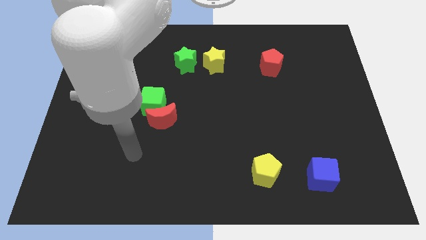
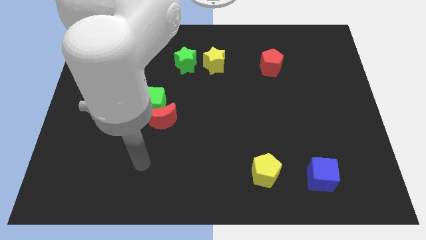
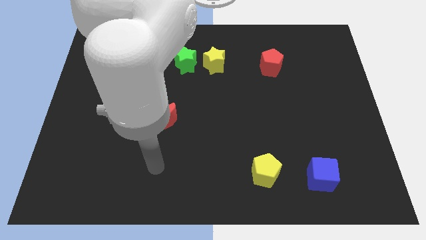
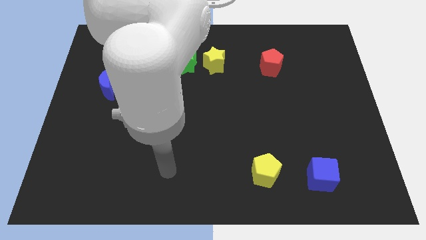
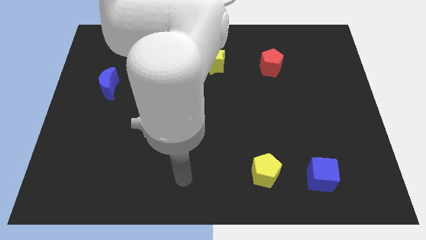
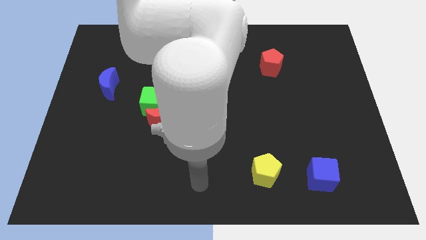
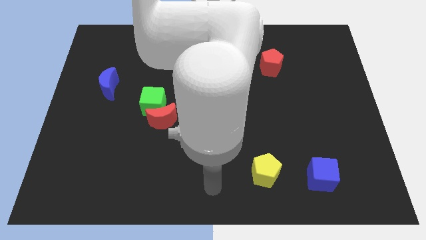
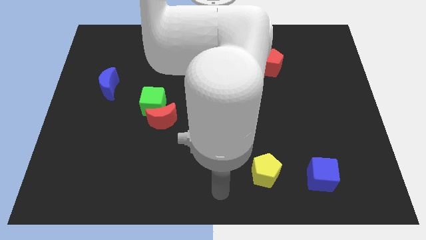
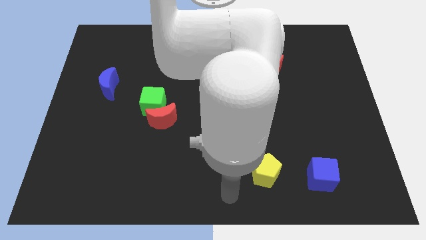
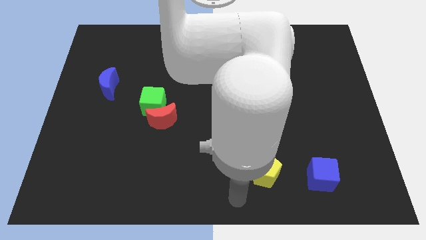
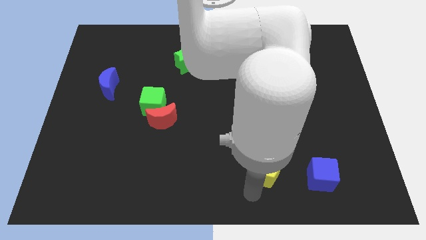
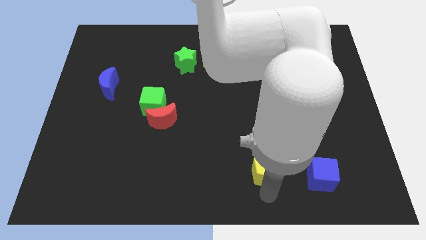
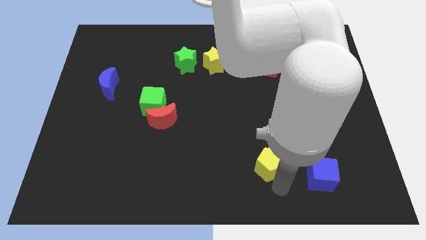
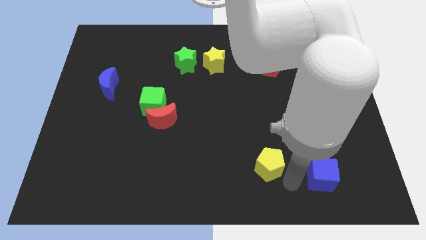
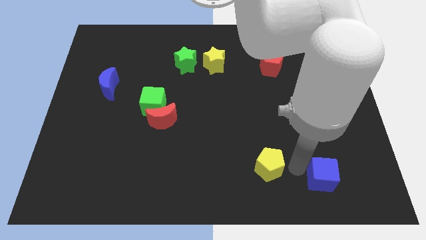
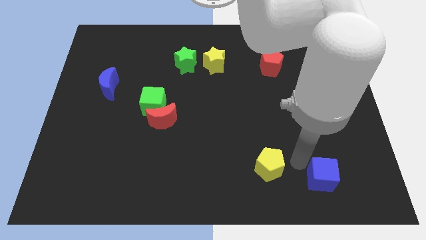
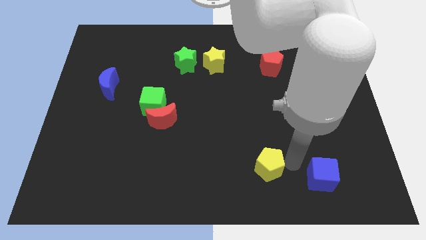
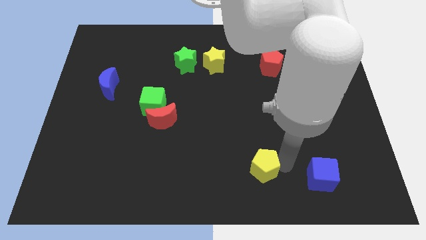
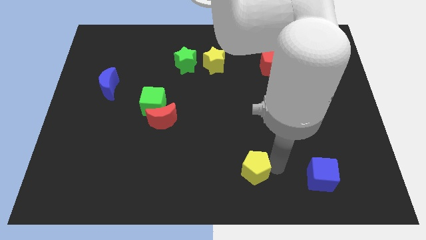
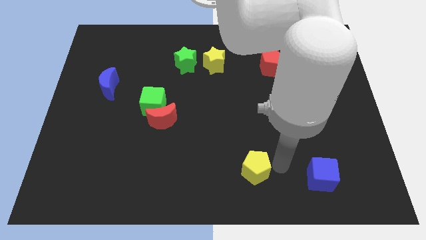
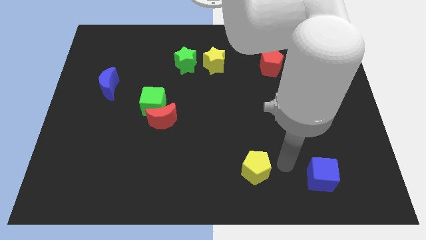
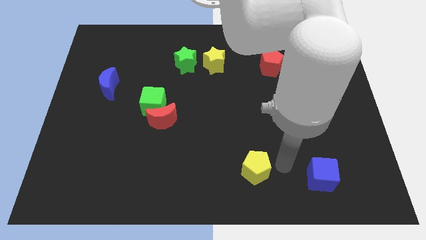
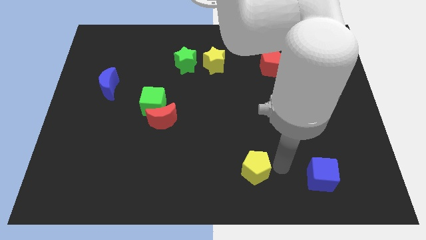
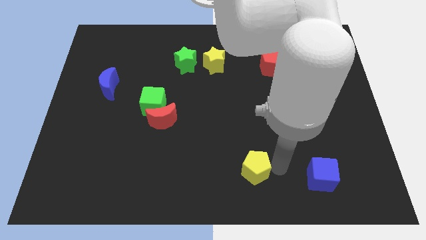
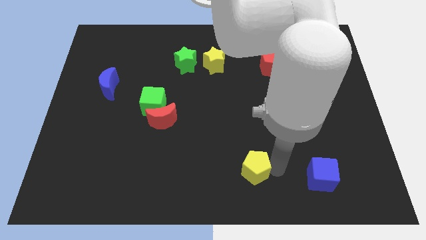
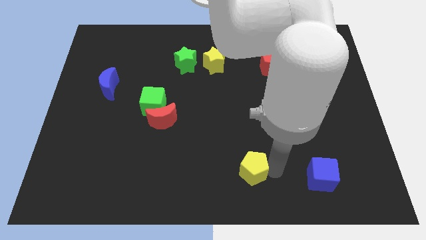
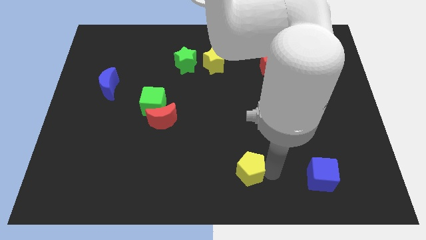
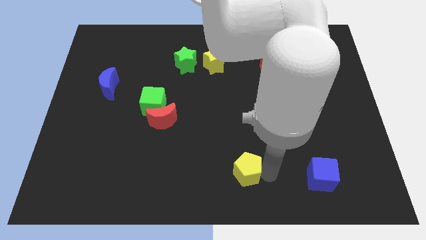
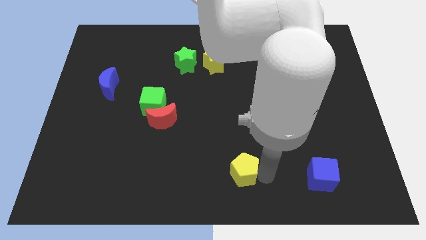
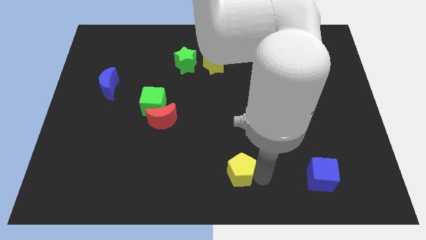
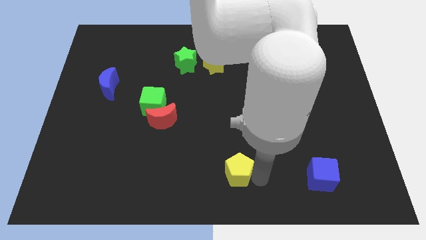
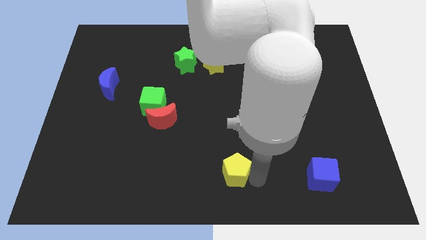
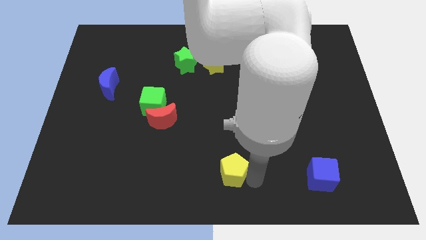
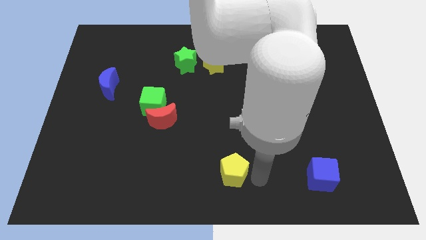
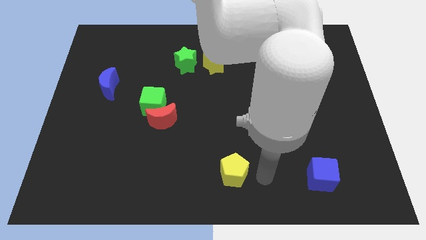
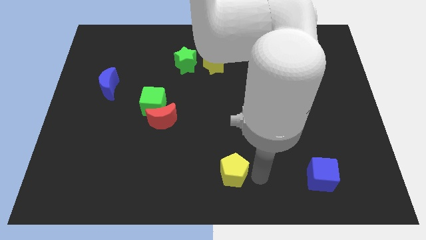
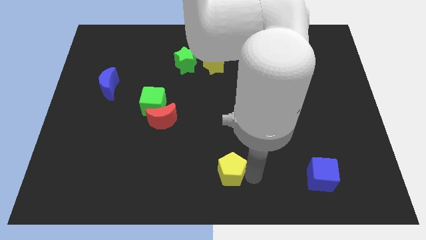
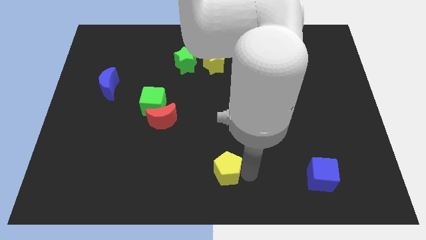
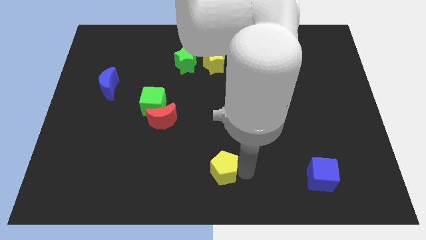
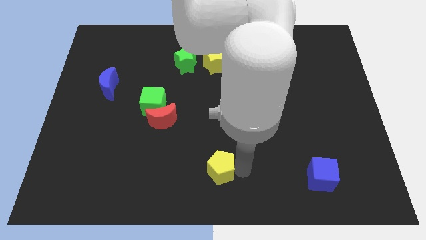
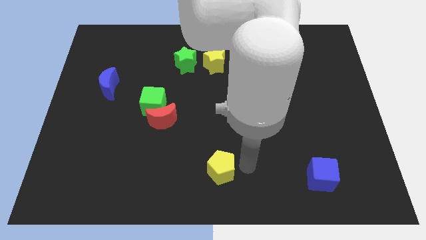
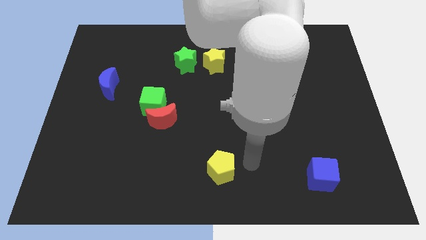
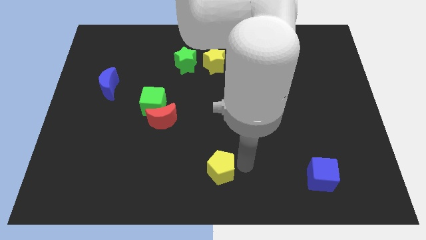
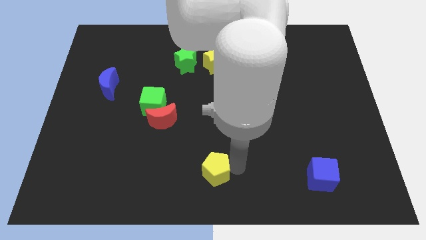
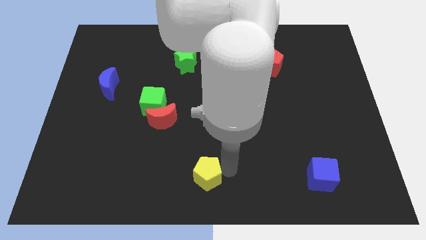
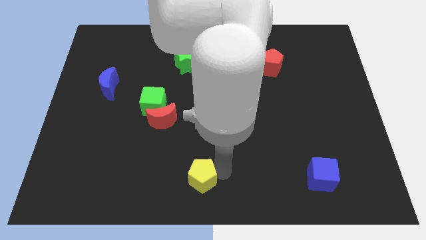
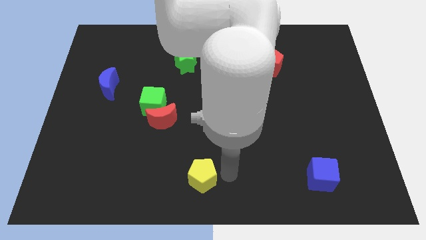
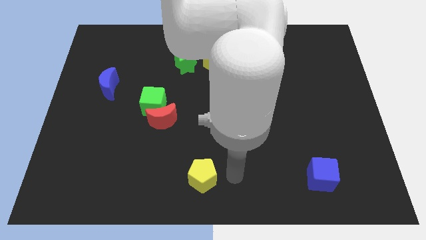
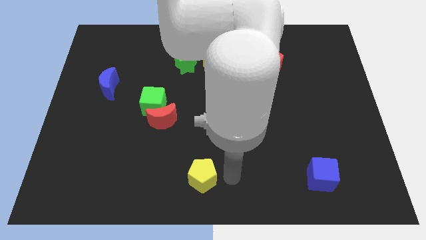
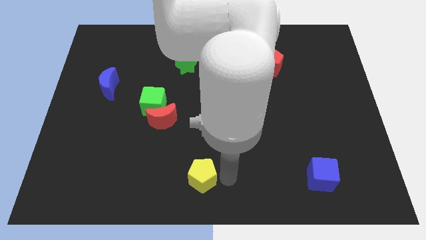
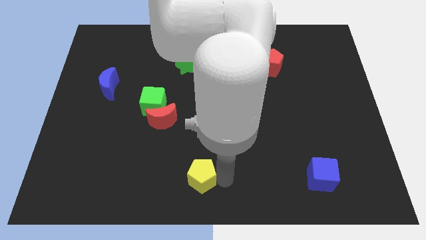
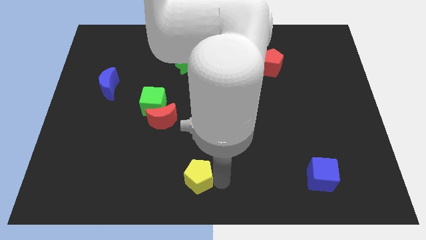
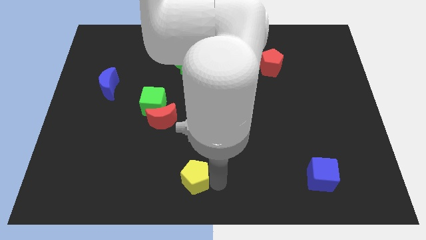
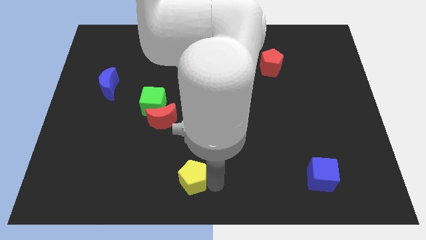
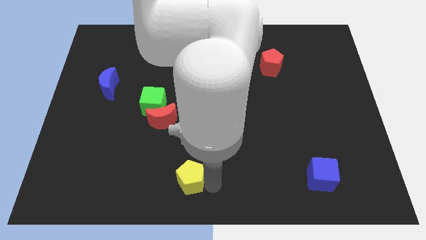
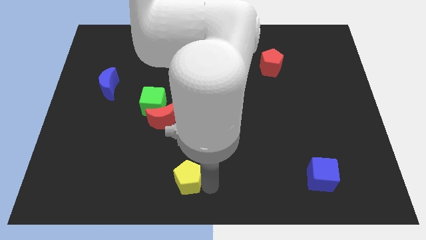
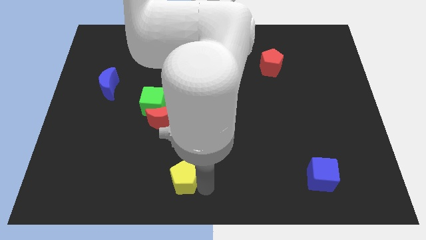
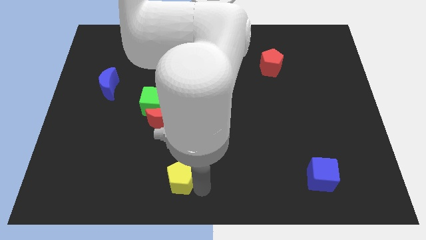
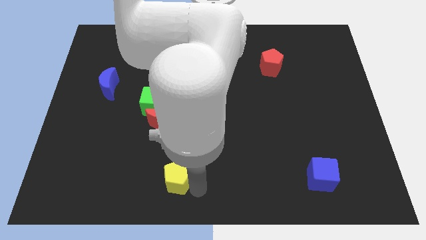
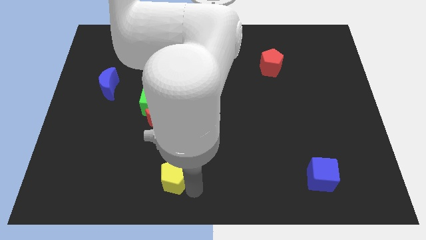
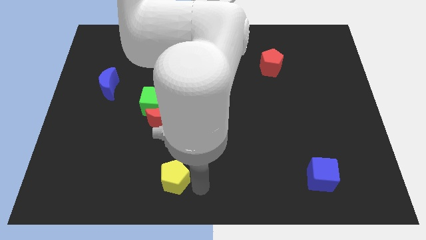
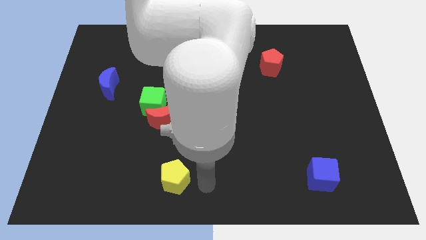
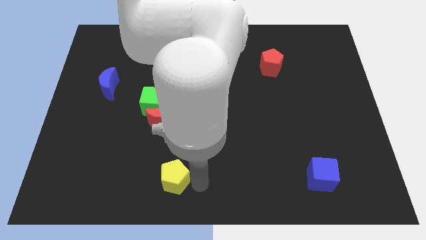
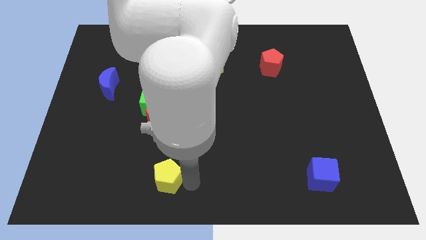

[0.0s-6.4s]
move the yellow pentagon left

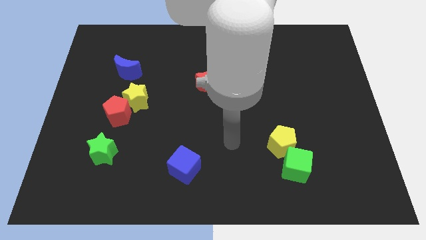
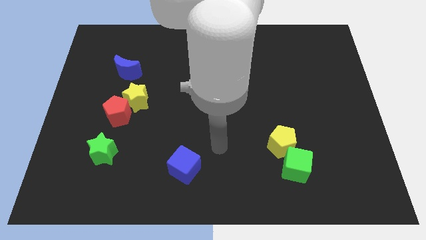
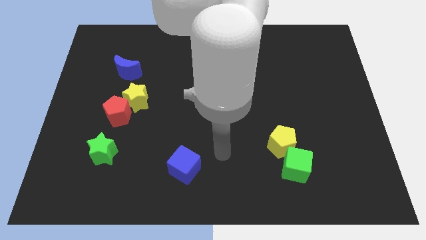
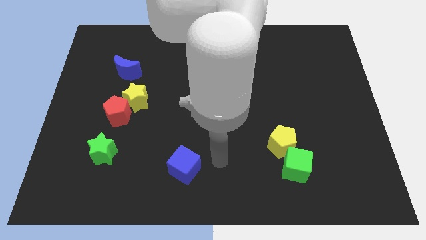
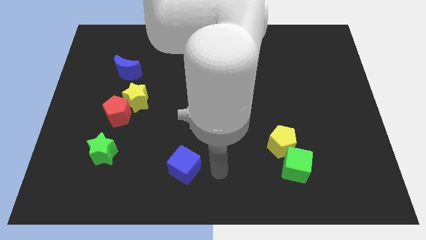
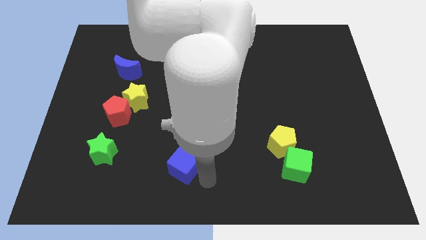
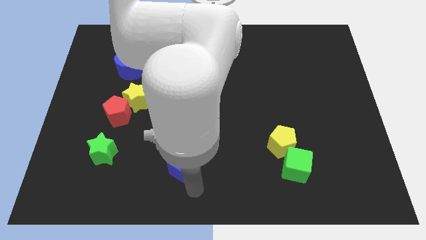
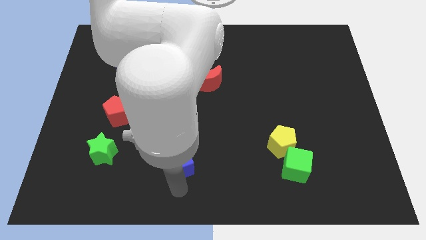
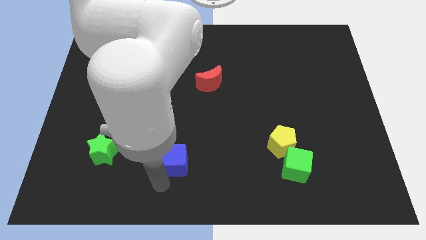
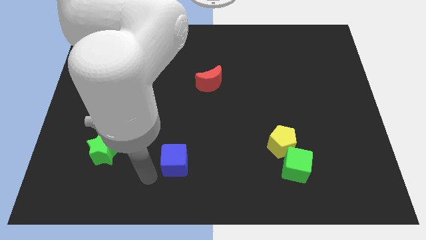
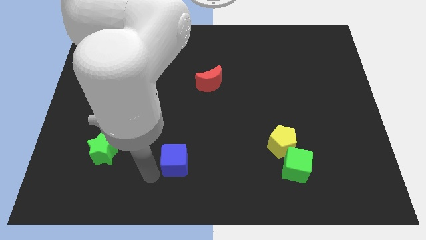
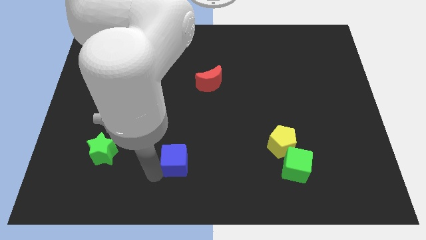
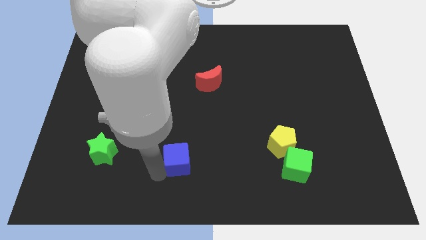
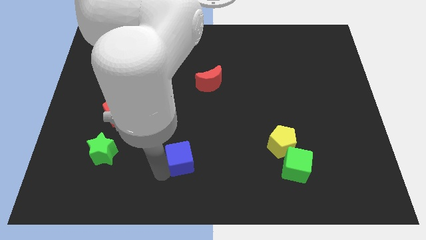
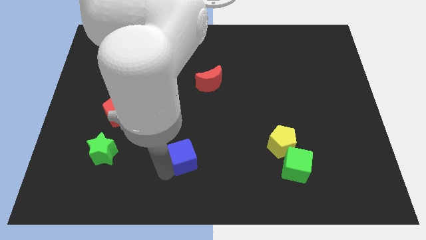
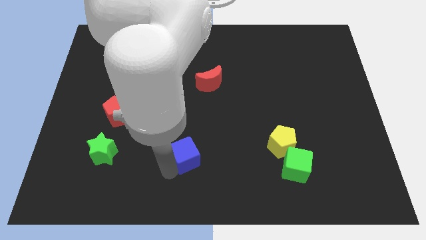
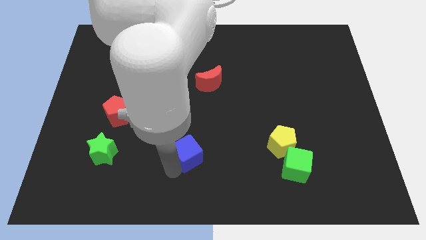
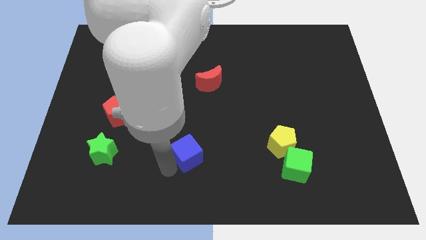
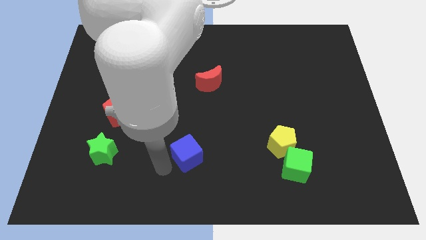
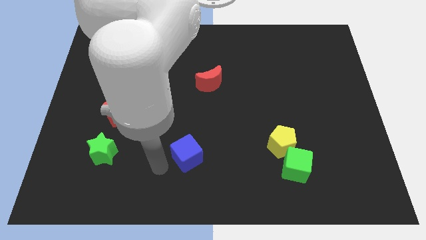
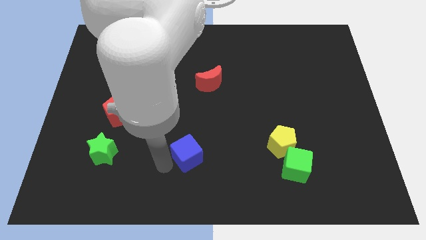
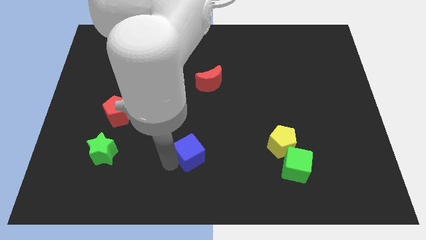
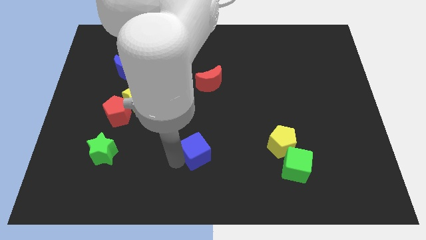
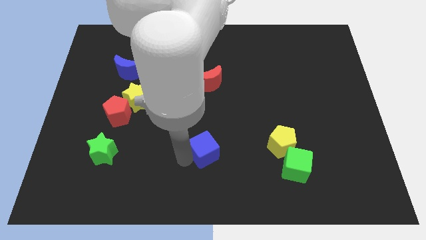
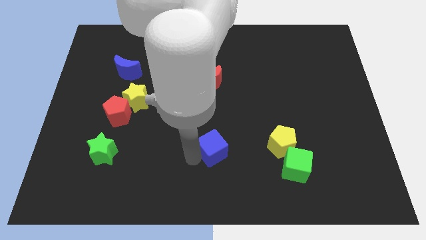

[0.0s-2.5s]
slide the blue cube a bit up and right
